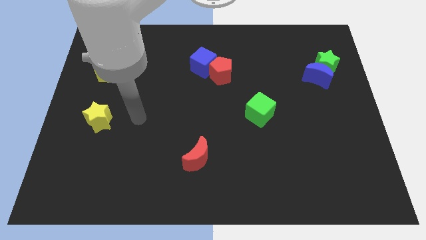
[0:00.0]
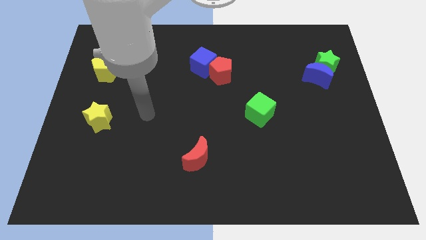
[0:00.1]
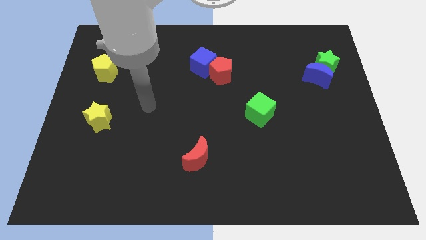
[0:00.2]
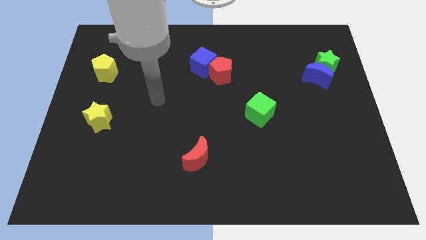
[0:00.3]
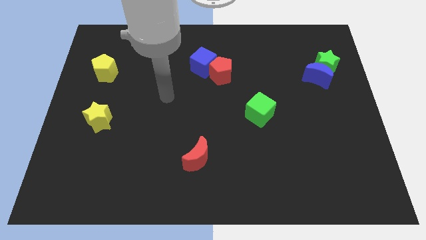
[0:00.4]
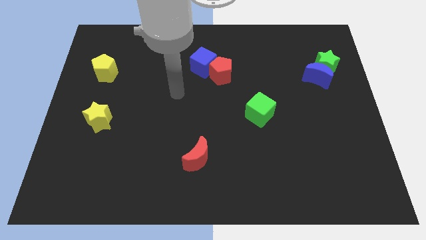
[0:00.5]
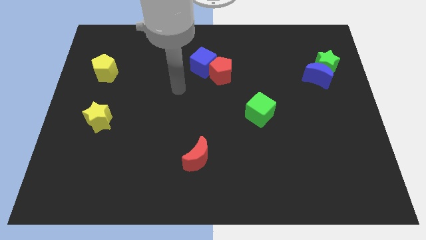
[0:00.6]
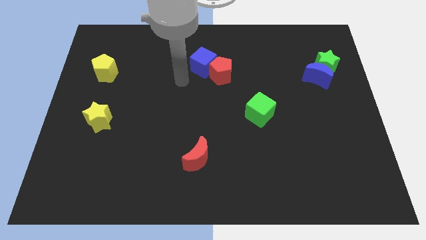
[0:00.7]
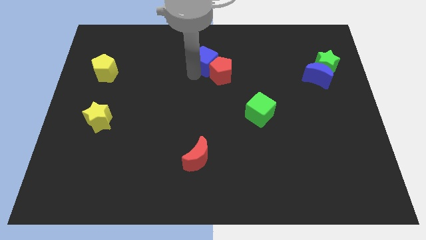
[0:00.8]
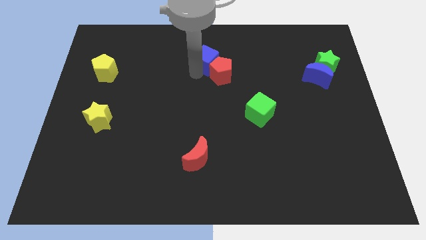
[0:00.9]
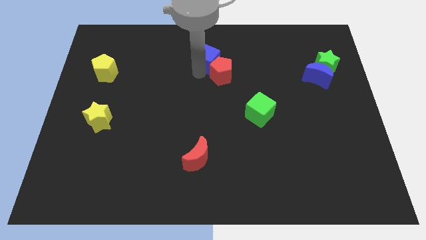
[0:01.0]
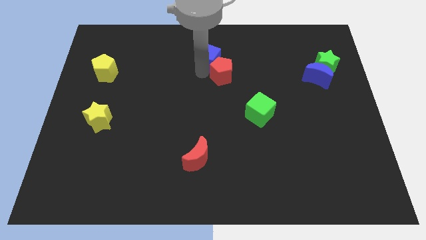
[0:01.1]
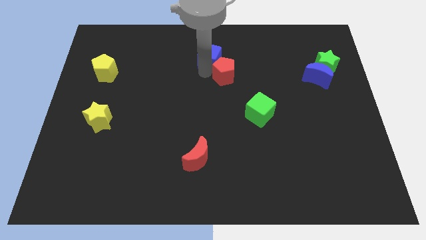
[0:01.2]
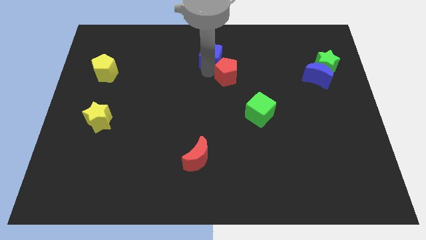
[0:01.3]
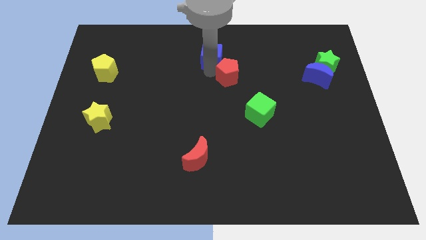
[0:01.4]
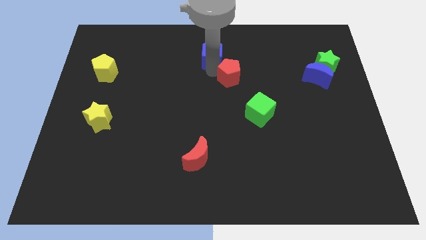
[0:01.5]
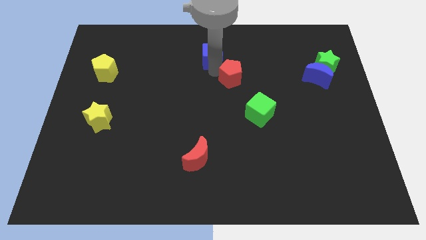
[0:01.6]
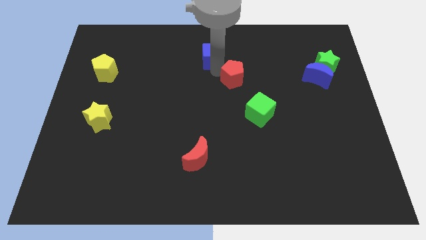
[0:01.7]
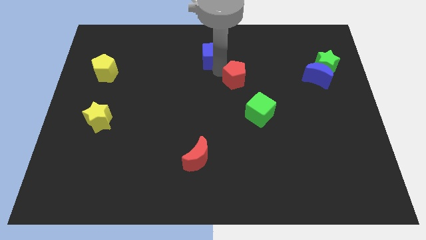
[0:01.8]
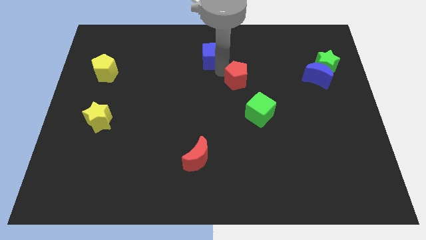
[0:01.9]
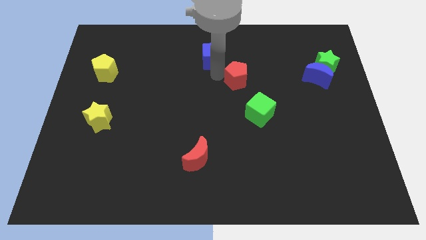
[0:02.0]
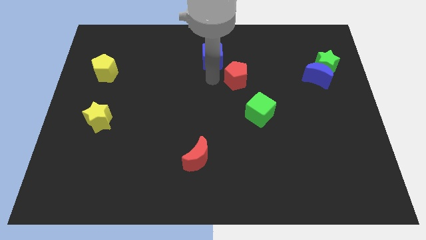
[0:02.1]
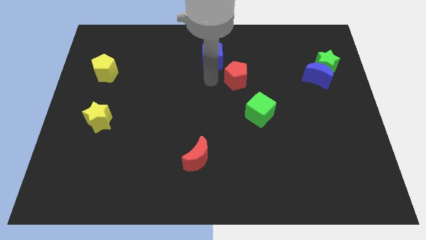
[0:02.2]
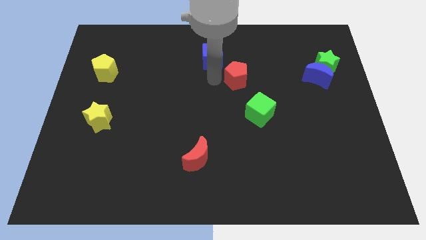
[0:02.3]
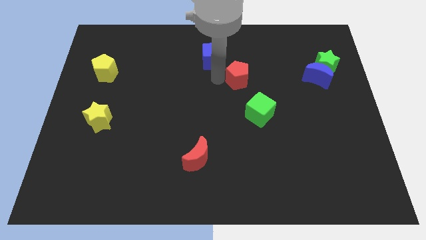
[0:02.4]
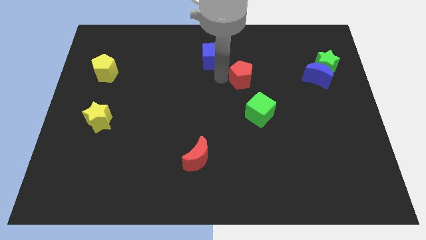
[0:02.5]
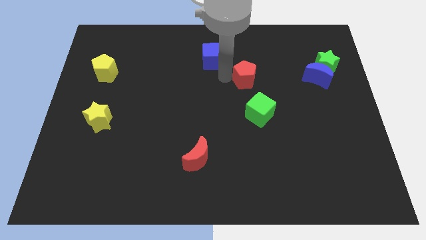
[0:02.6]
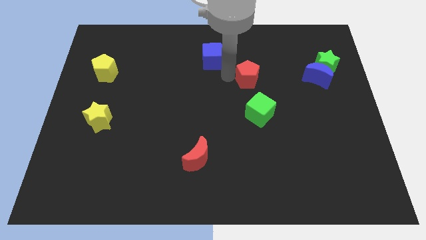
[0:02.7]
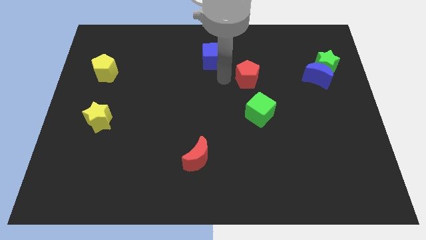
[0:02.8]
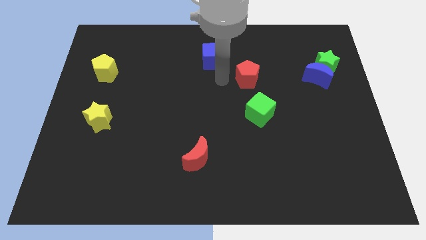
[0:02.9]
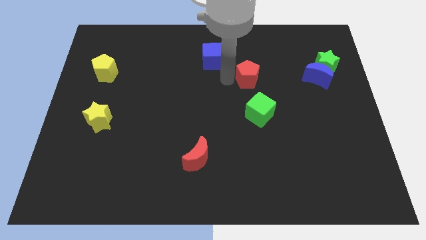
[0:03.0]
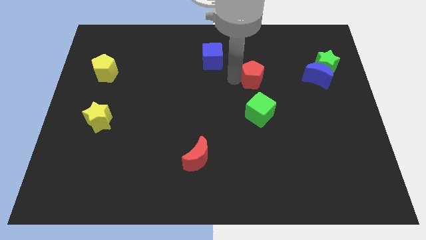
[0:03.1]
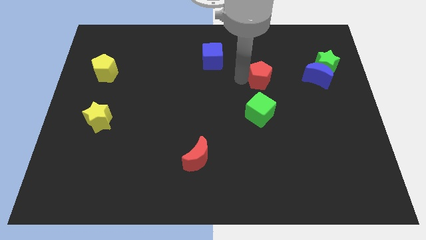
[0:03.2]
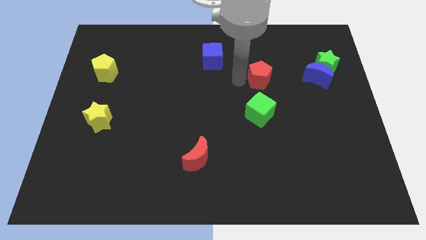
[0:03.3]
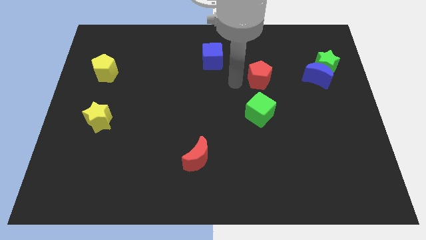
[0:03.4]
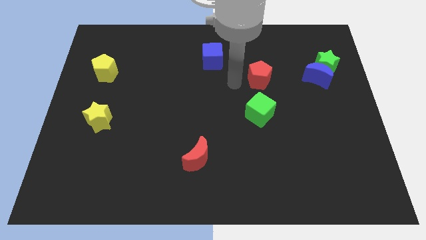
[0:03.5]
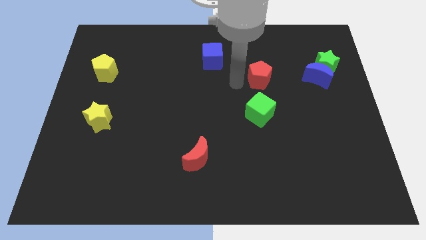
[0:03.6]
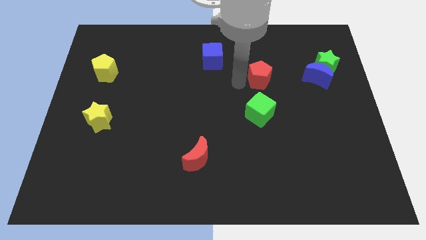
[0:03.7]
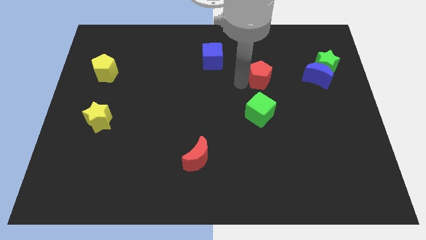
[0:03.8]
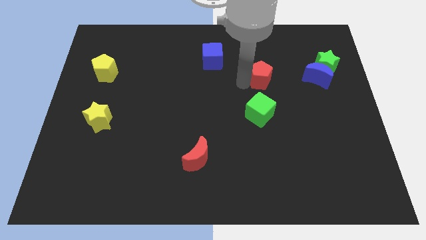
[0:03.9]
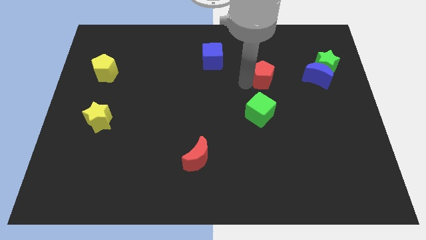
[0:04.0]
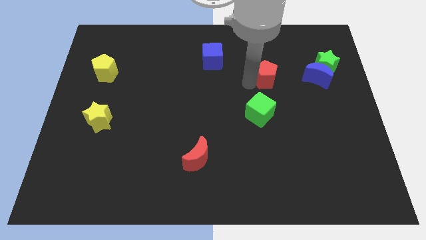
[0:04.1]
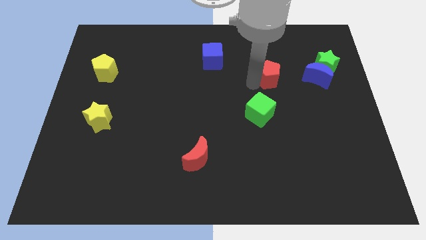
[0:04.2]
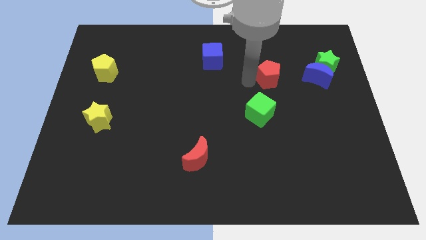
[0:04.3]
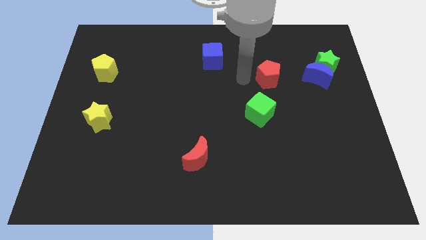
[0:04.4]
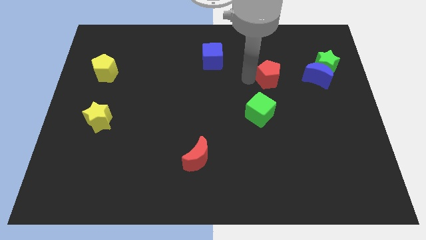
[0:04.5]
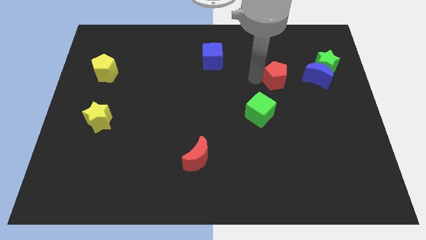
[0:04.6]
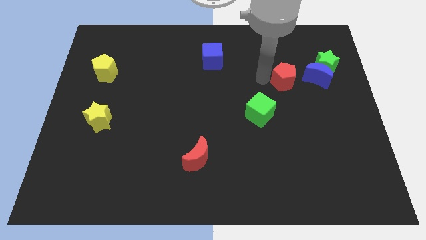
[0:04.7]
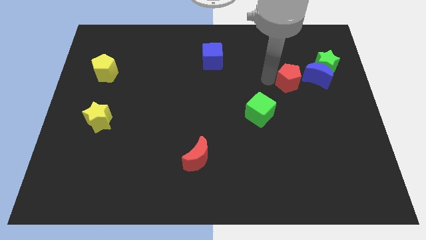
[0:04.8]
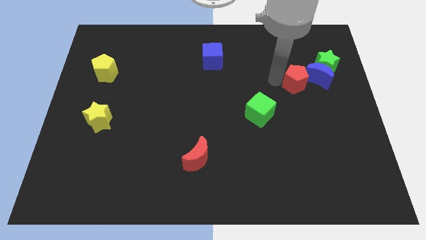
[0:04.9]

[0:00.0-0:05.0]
push the red pentagon close to the blue moon

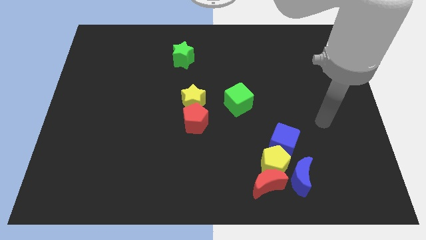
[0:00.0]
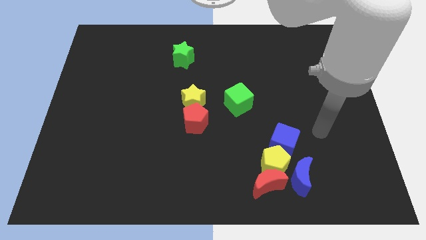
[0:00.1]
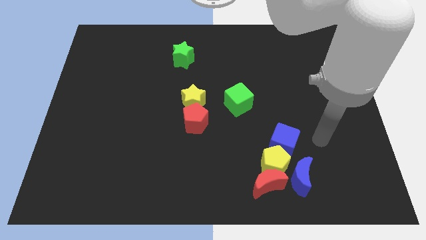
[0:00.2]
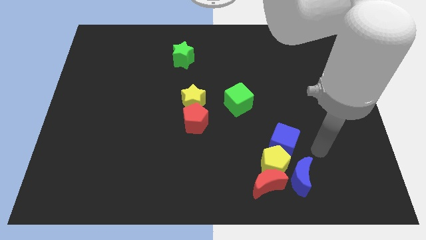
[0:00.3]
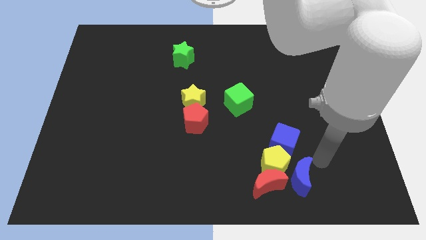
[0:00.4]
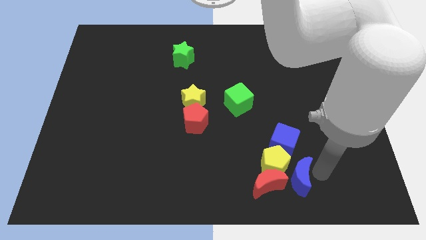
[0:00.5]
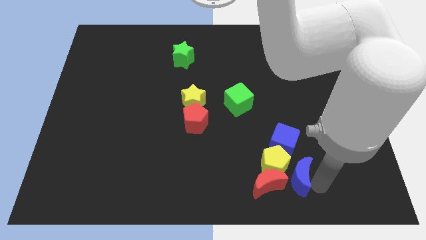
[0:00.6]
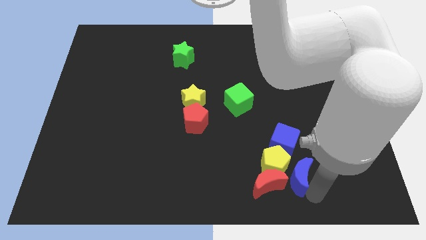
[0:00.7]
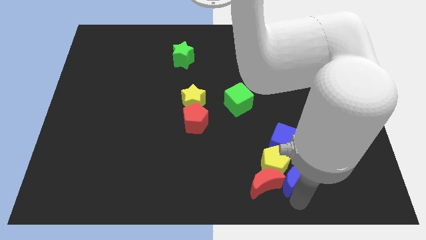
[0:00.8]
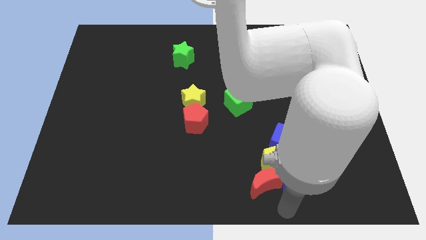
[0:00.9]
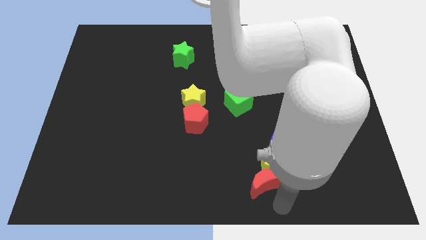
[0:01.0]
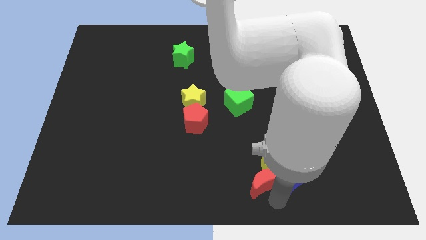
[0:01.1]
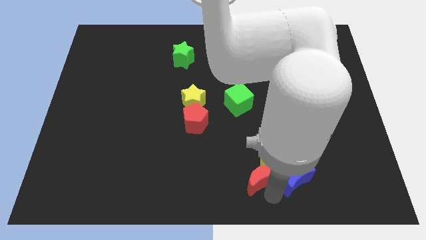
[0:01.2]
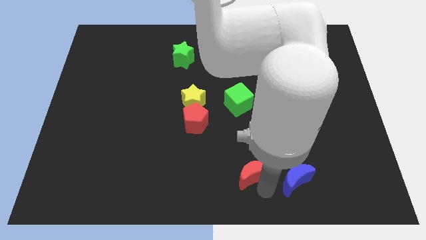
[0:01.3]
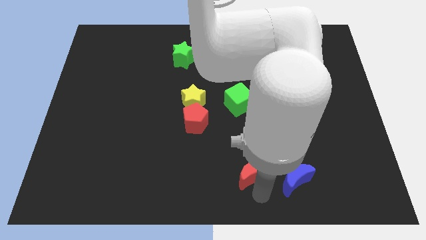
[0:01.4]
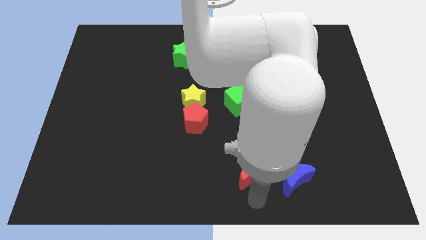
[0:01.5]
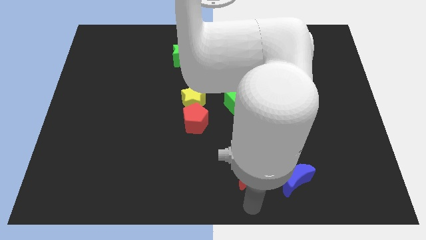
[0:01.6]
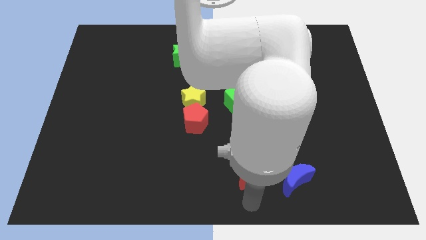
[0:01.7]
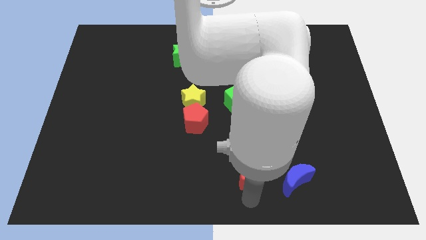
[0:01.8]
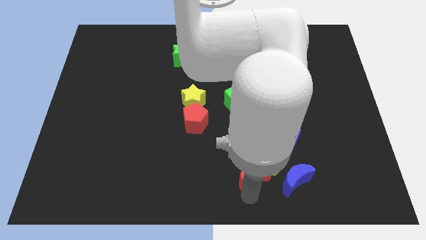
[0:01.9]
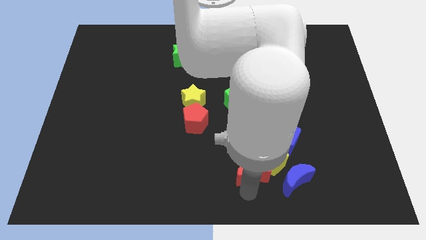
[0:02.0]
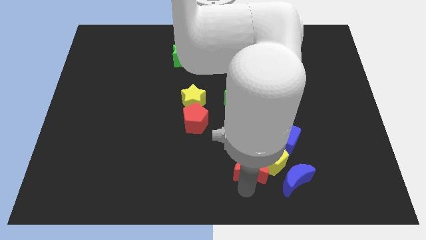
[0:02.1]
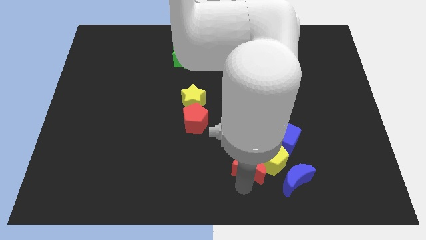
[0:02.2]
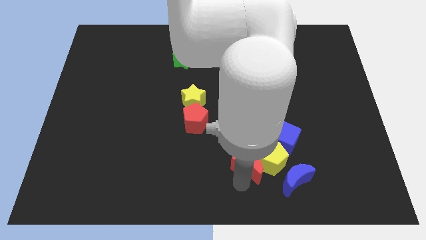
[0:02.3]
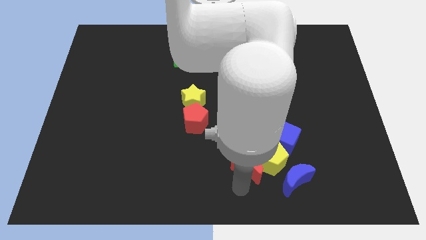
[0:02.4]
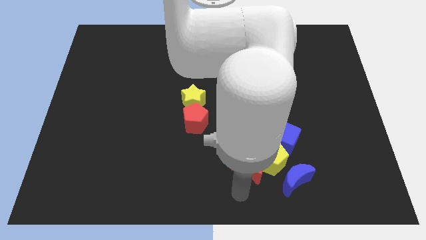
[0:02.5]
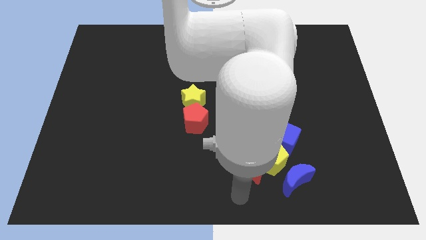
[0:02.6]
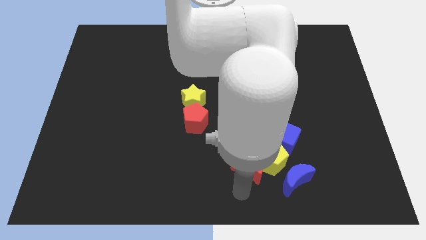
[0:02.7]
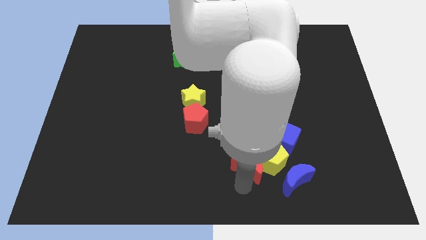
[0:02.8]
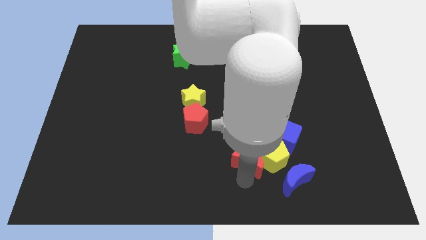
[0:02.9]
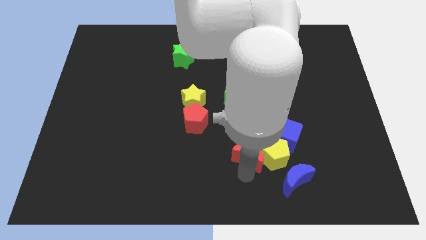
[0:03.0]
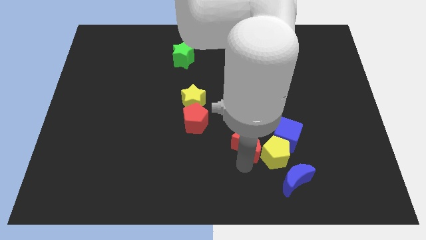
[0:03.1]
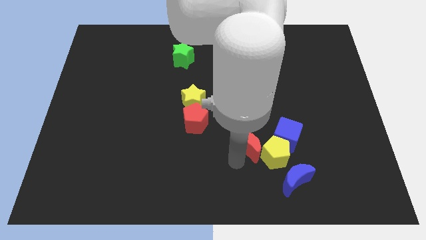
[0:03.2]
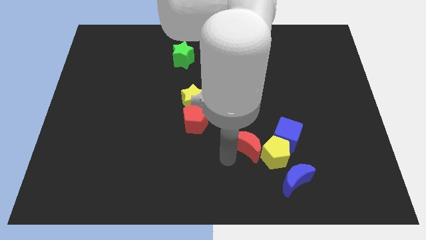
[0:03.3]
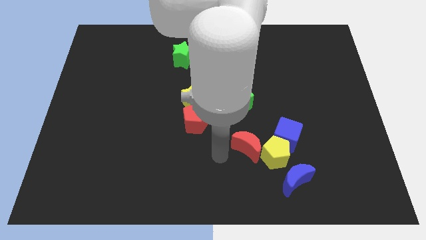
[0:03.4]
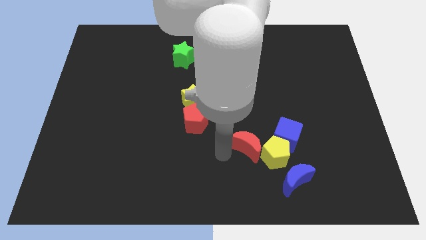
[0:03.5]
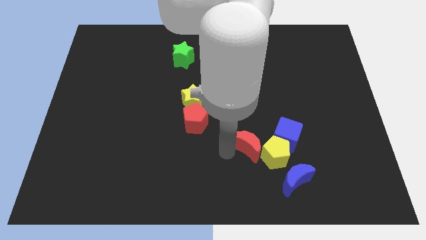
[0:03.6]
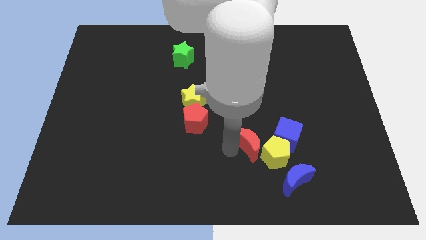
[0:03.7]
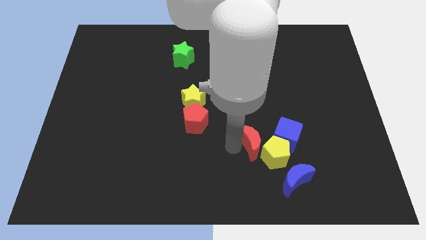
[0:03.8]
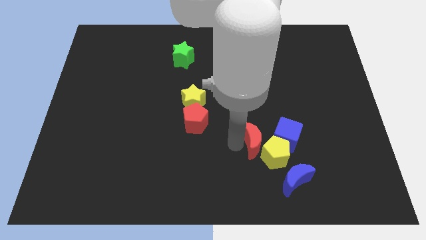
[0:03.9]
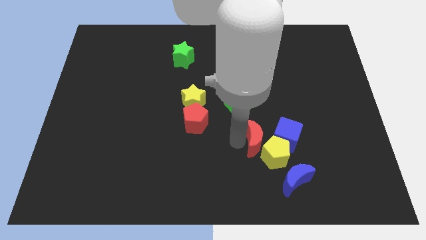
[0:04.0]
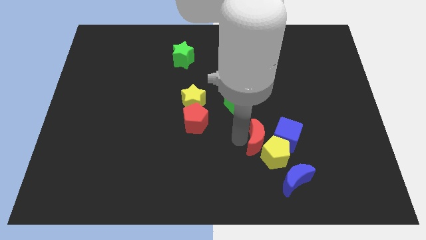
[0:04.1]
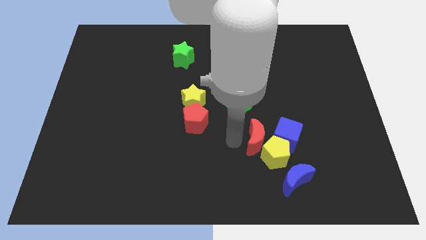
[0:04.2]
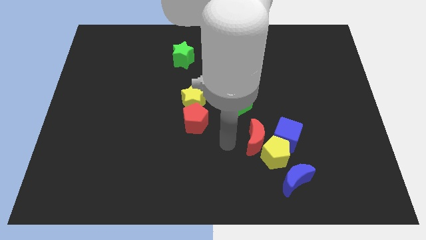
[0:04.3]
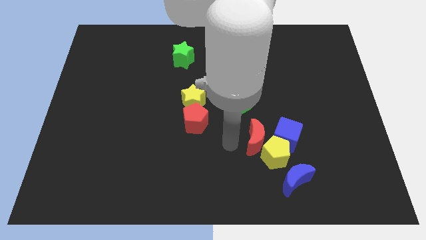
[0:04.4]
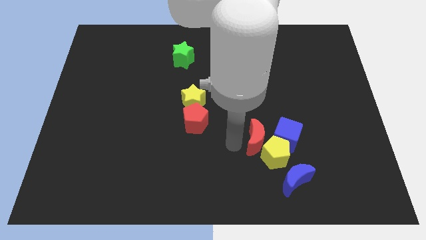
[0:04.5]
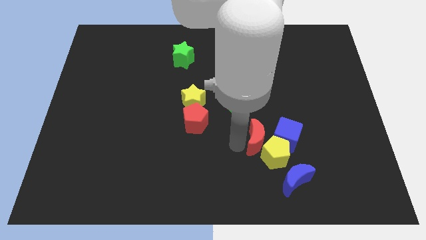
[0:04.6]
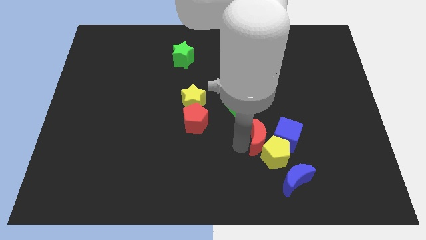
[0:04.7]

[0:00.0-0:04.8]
put the red moon towards the blue cube
